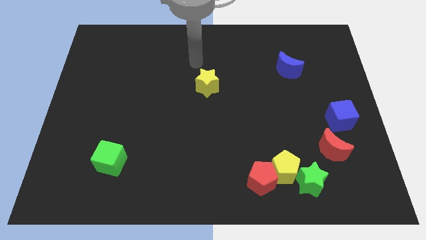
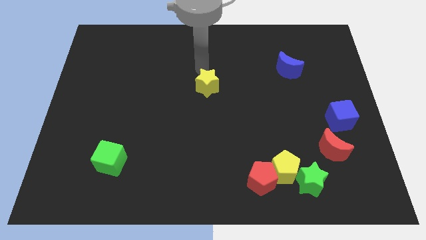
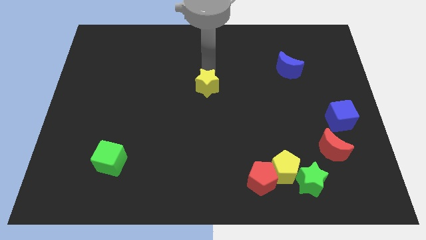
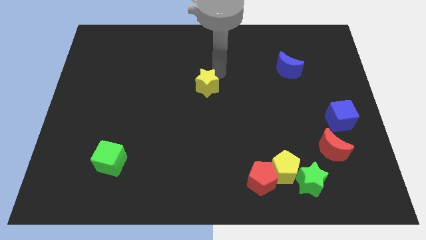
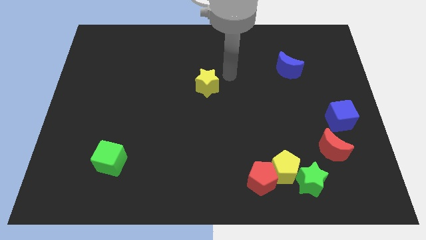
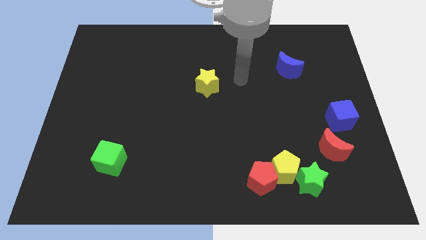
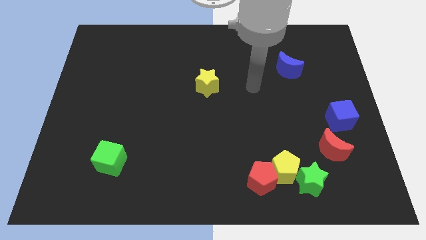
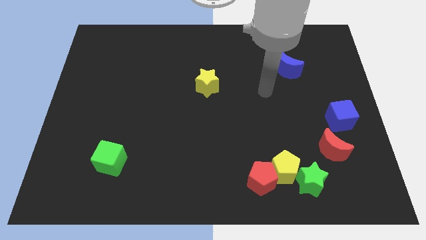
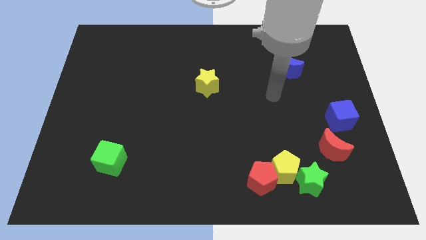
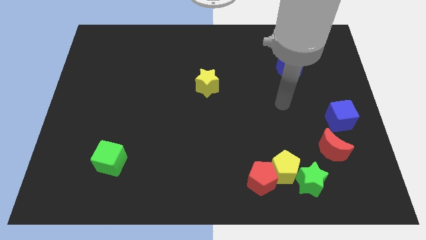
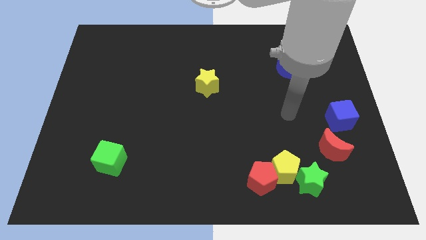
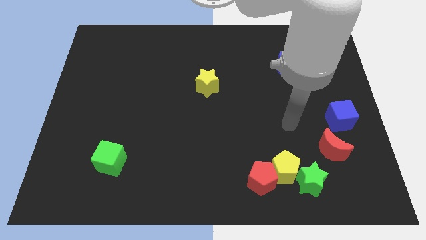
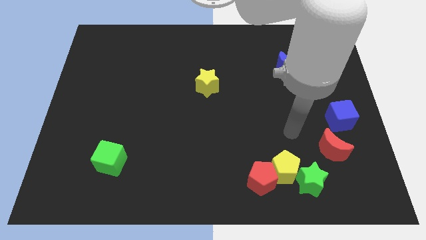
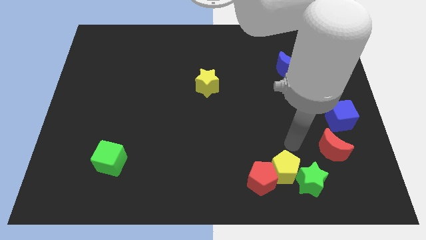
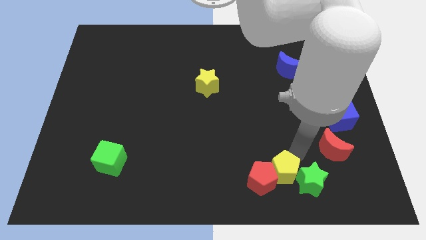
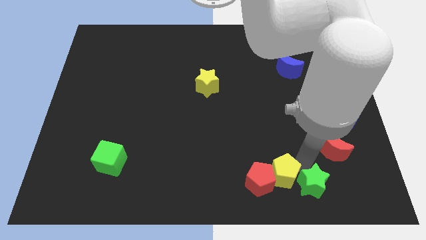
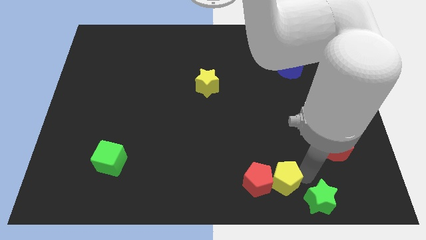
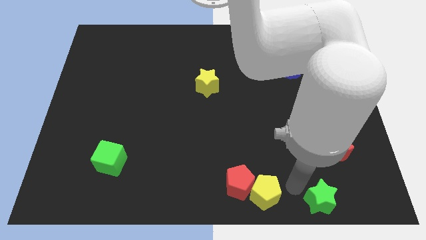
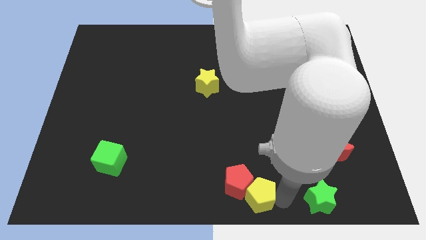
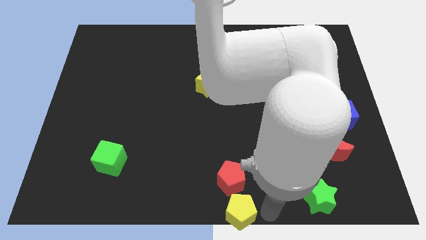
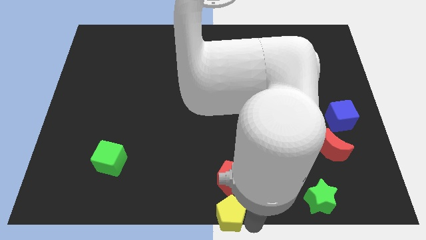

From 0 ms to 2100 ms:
pull the yellow pentagon apart from the red pentagon and green star

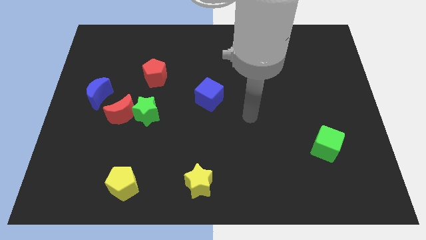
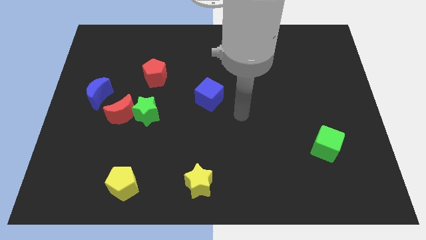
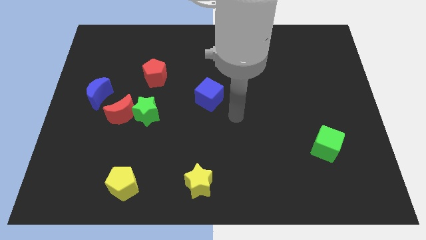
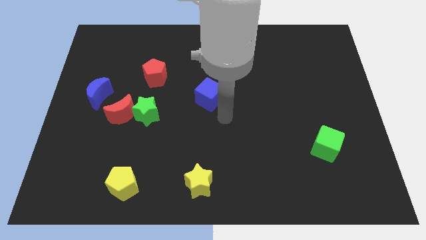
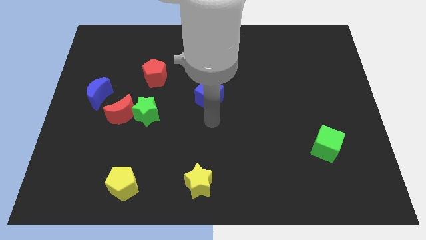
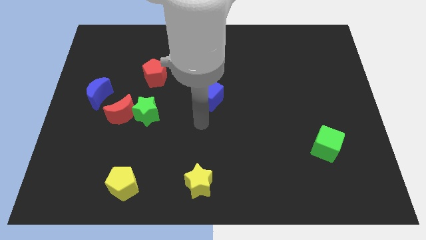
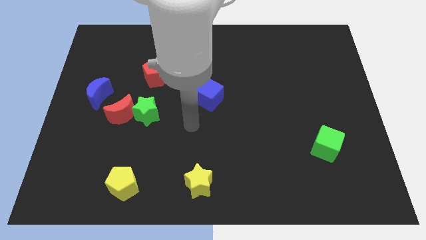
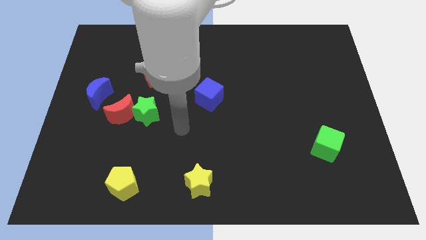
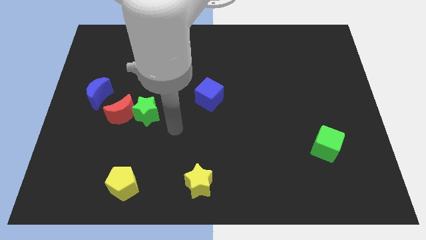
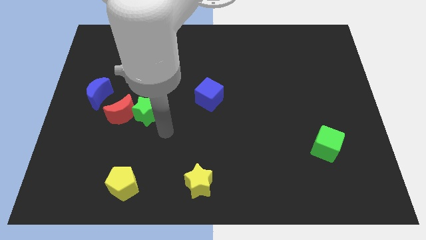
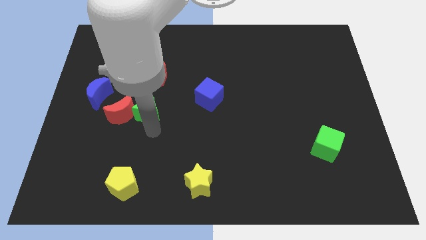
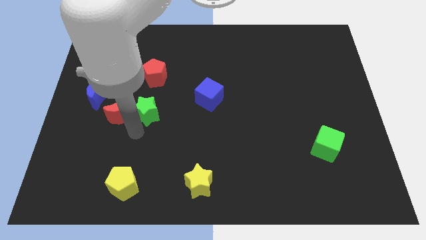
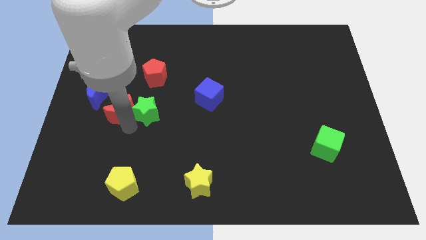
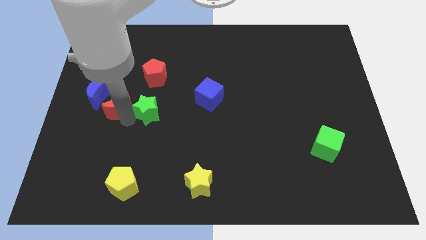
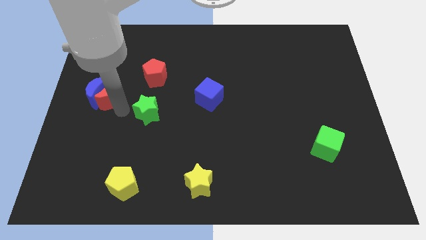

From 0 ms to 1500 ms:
separate the green star from the red moon

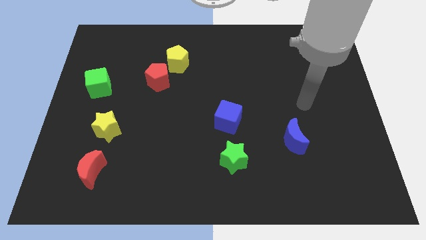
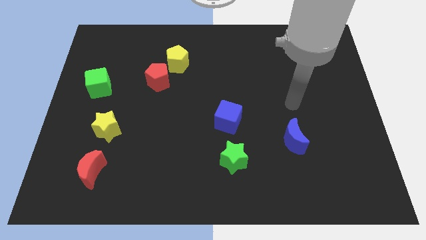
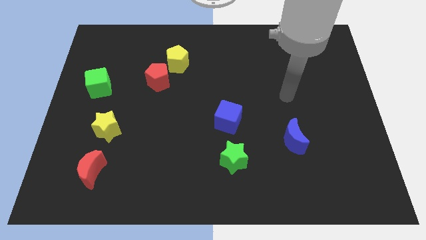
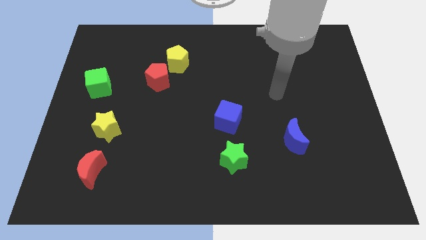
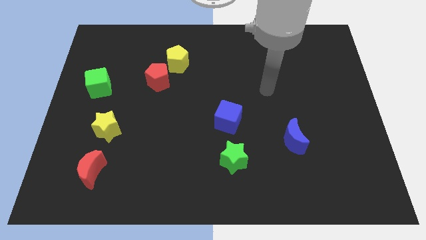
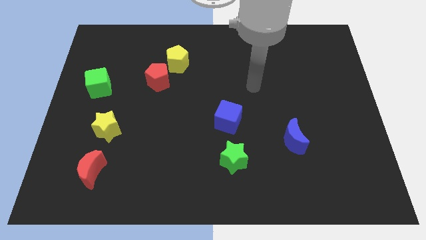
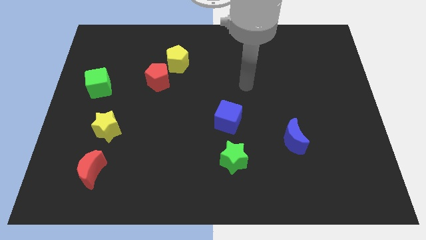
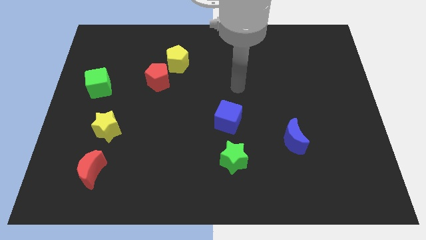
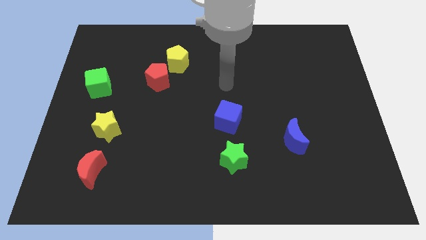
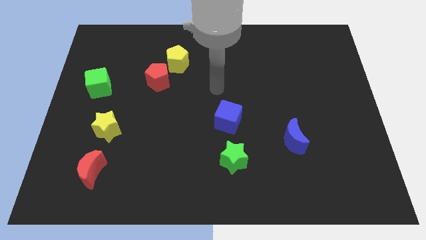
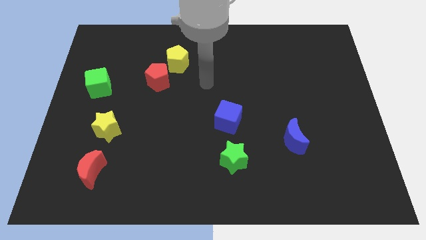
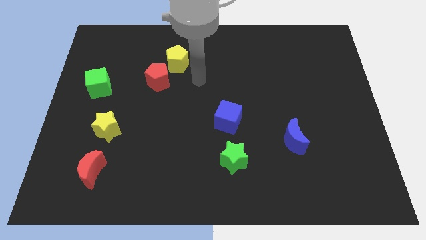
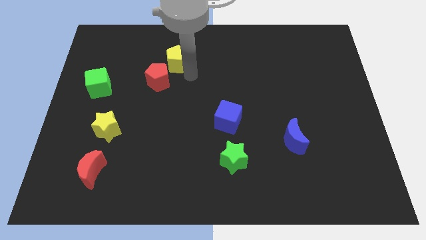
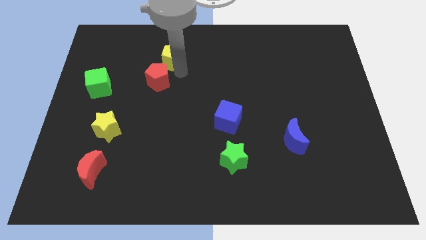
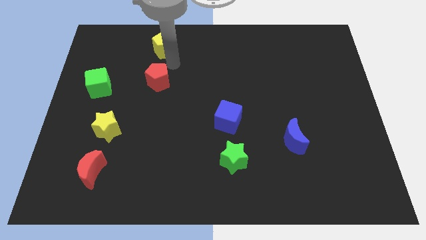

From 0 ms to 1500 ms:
separate the red pentagon from the yellow pentagon

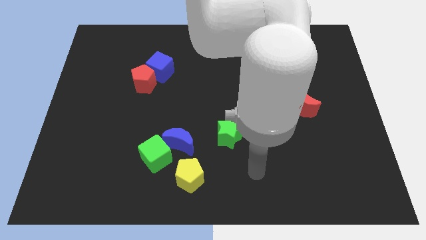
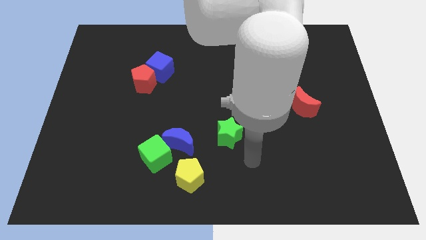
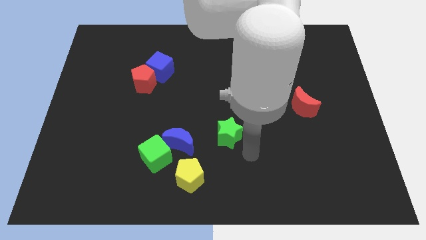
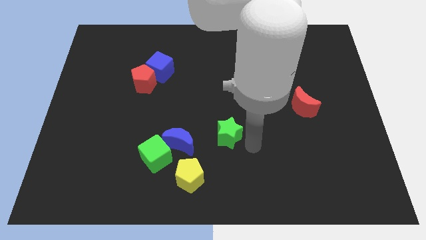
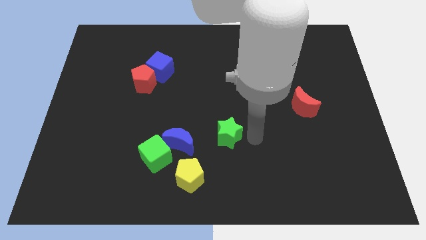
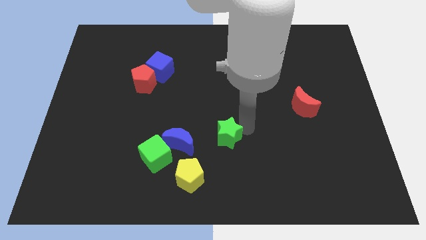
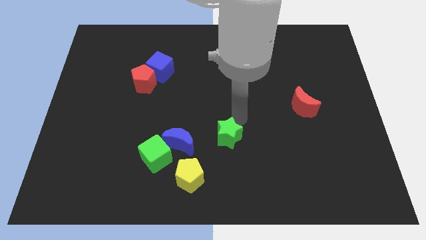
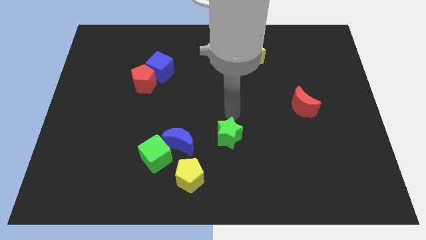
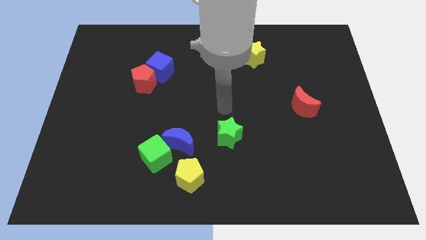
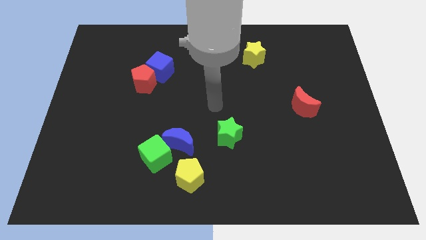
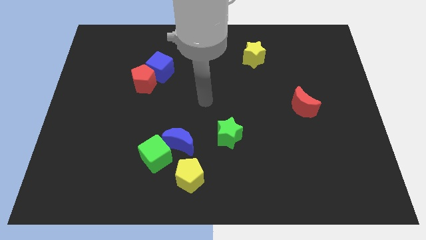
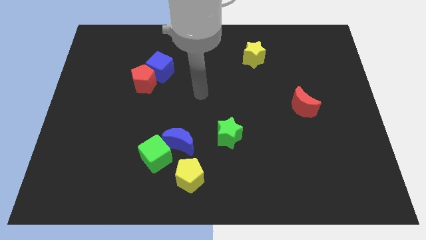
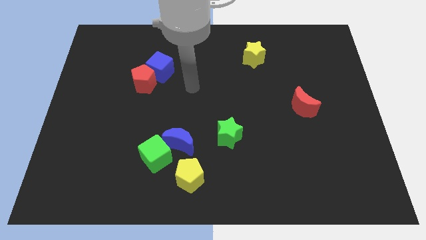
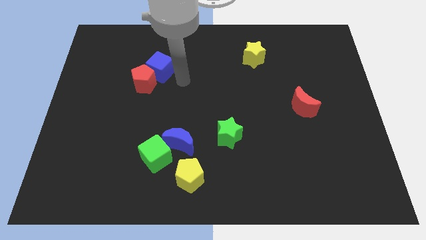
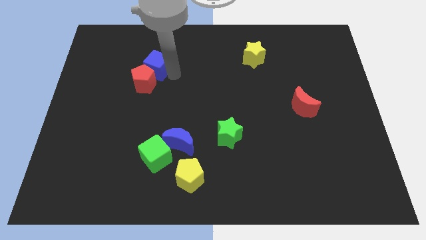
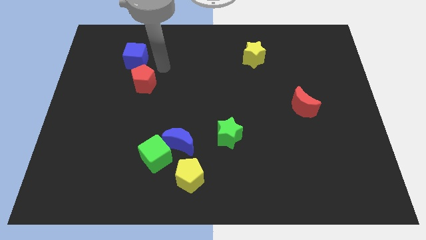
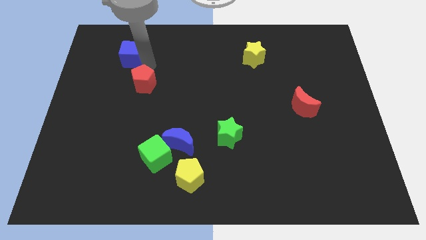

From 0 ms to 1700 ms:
move the red pentagon away from the blue cube

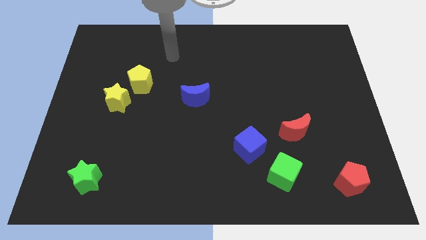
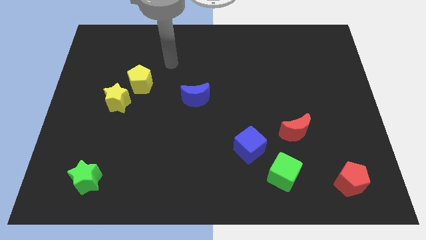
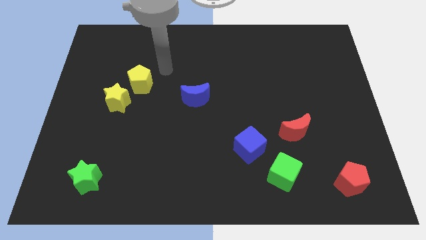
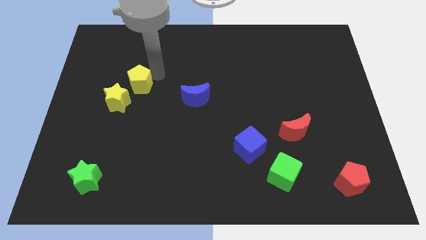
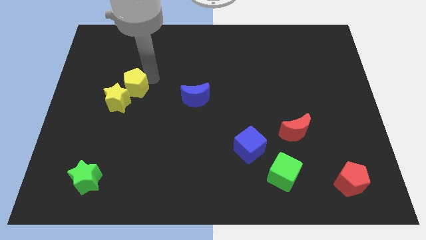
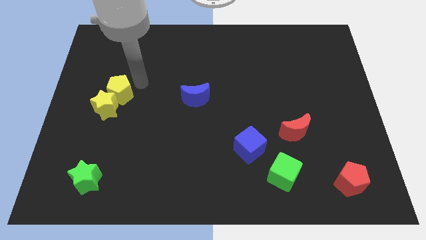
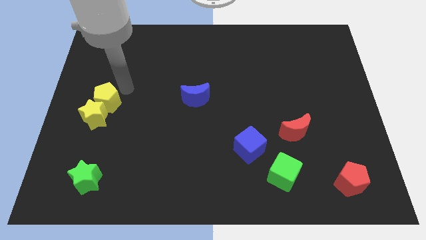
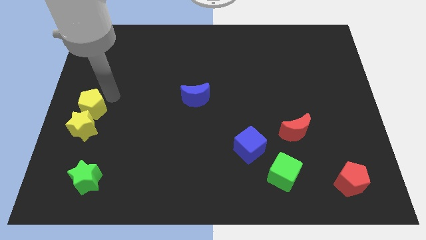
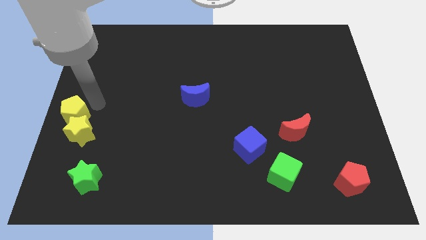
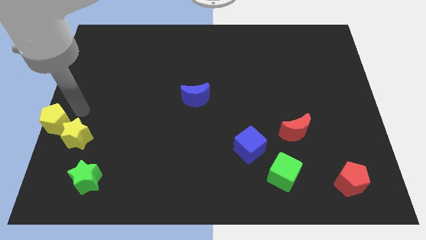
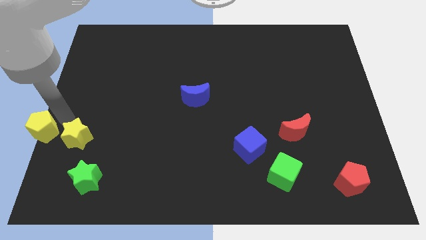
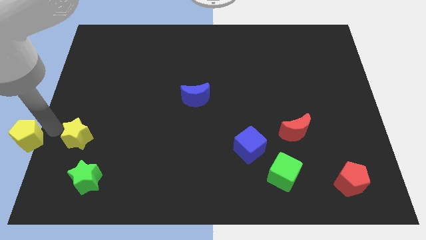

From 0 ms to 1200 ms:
move the yellow star away from the yellow pentagon

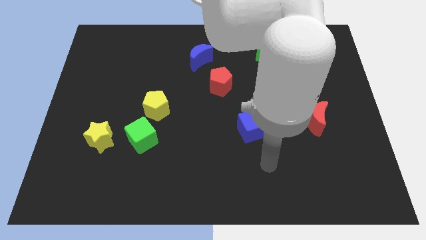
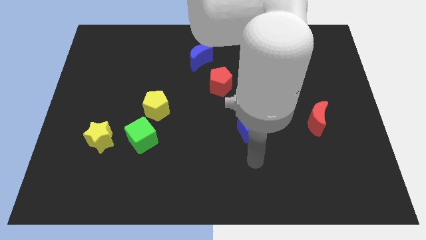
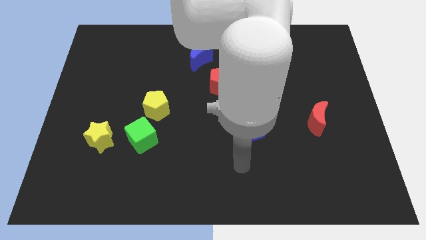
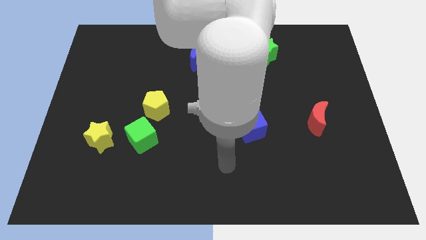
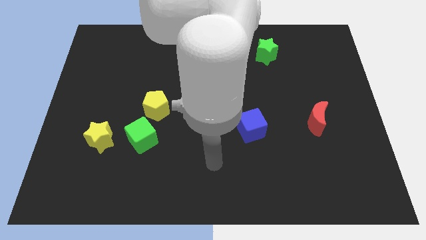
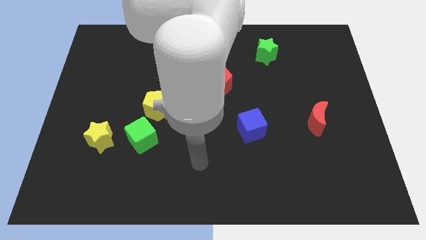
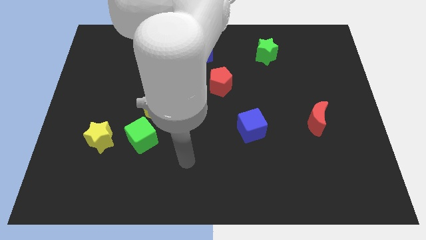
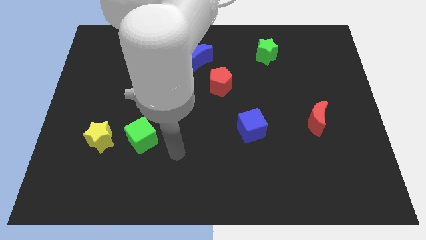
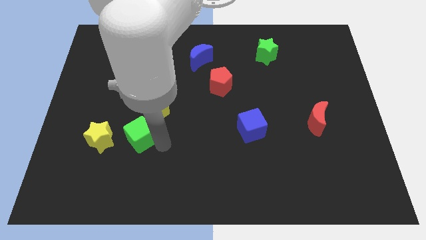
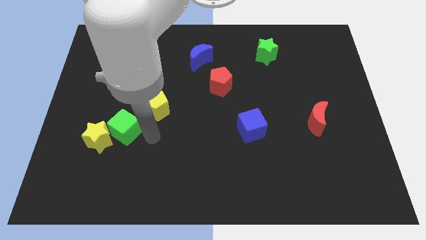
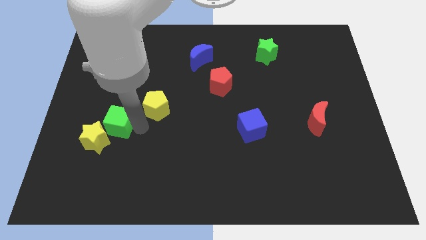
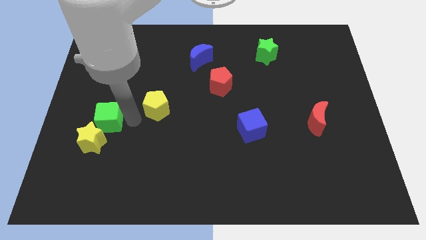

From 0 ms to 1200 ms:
move the yellow pentagon away from the green cube

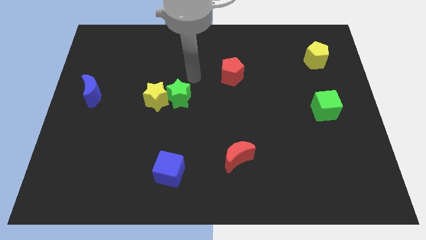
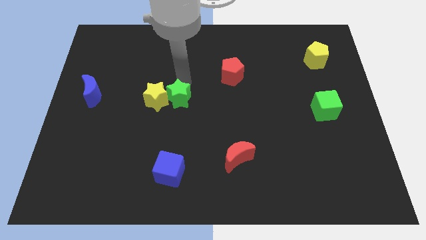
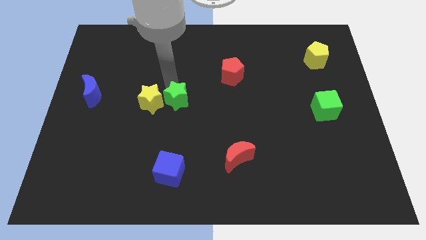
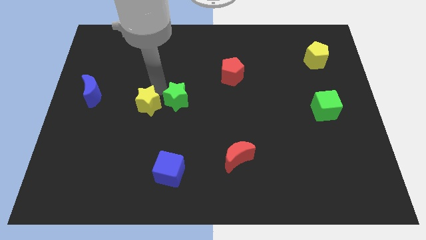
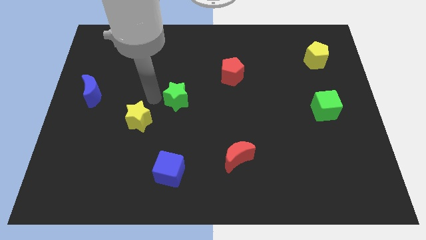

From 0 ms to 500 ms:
move the green star away from the yellow star
